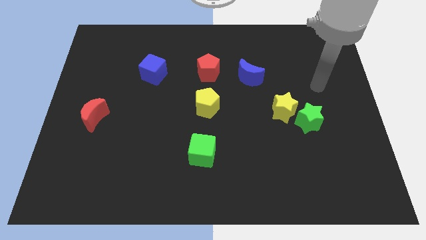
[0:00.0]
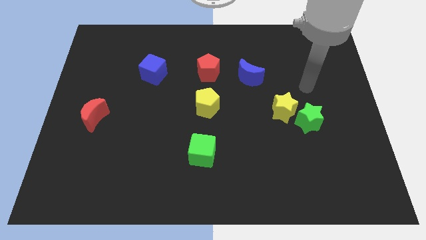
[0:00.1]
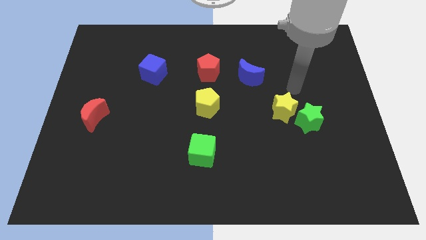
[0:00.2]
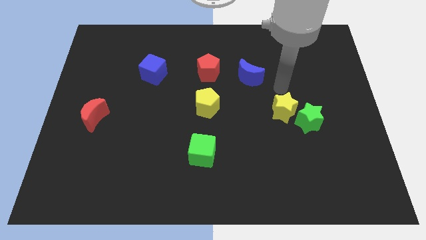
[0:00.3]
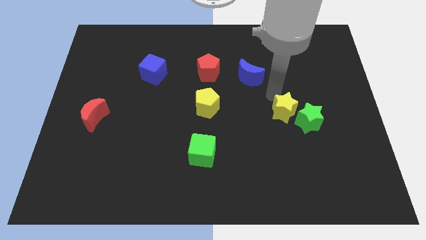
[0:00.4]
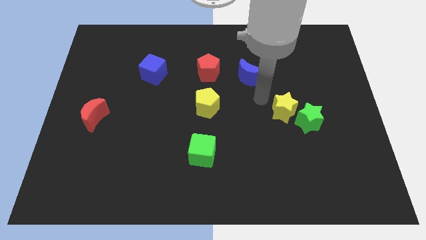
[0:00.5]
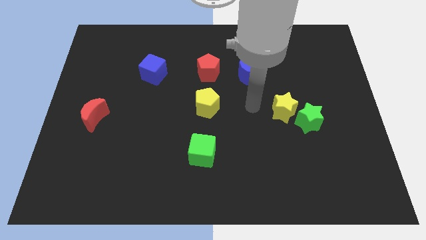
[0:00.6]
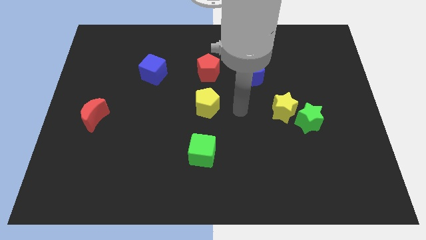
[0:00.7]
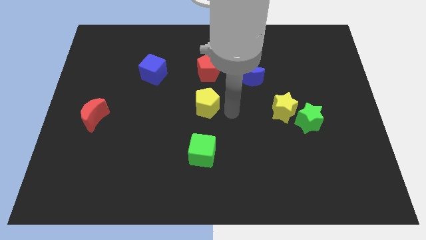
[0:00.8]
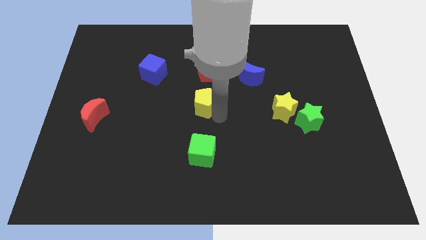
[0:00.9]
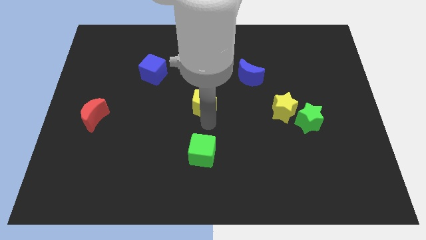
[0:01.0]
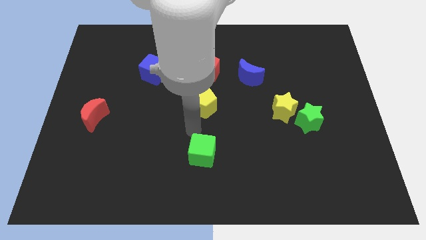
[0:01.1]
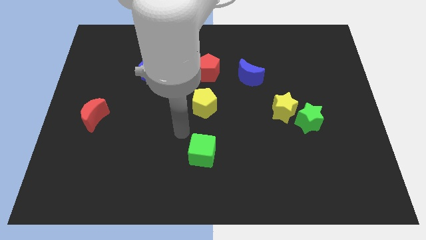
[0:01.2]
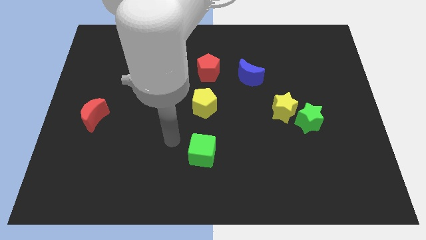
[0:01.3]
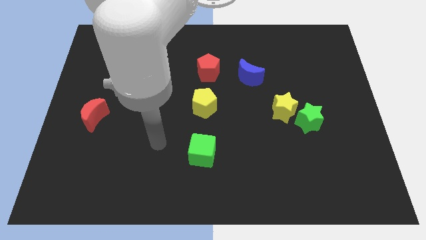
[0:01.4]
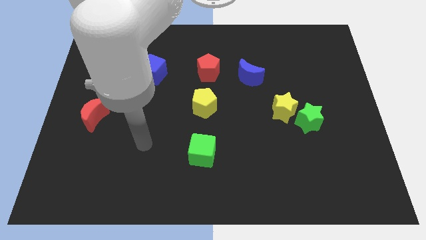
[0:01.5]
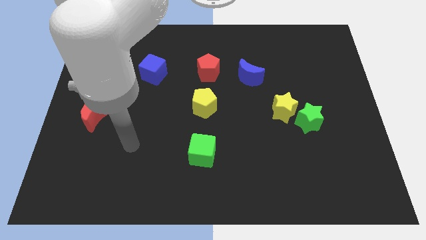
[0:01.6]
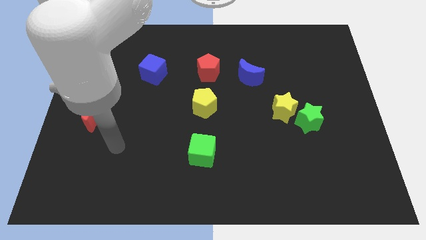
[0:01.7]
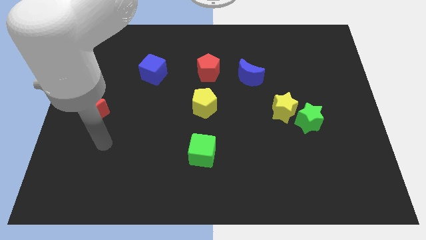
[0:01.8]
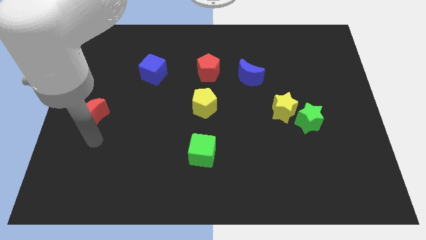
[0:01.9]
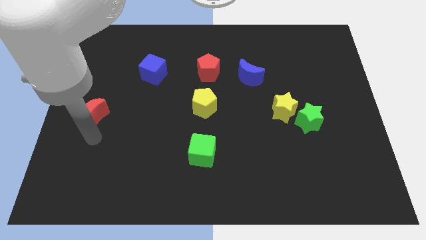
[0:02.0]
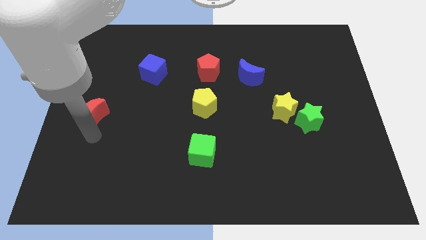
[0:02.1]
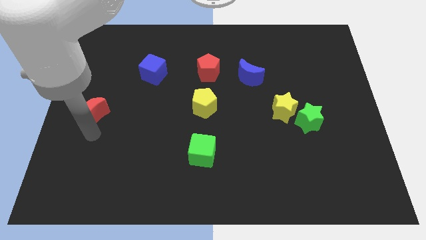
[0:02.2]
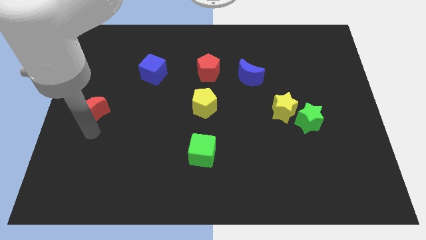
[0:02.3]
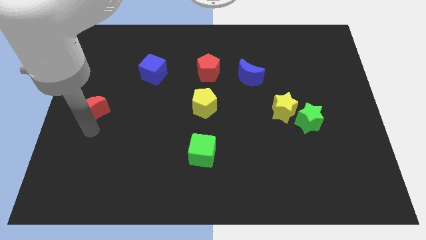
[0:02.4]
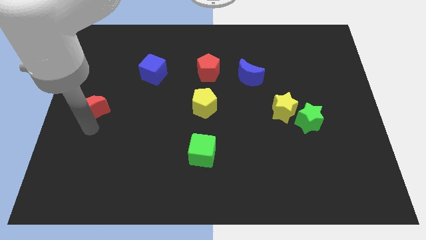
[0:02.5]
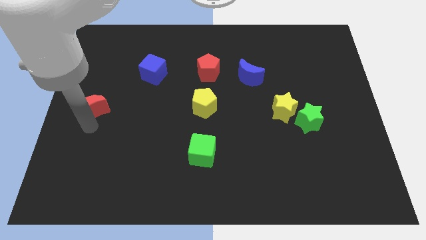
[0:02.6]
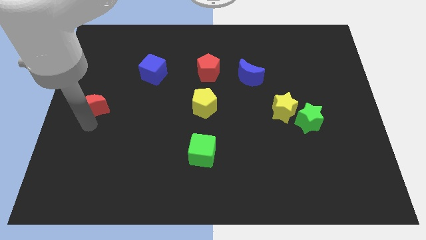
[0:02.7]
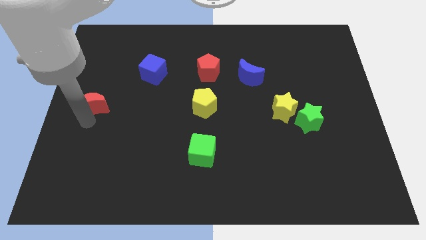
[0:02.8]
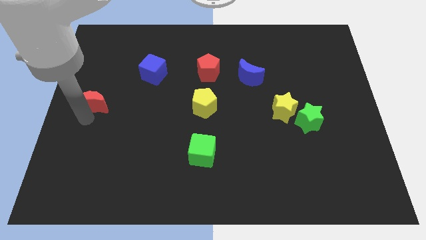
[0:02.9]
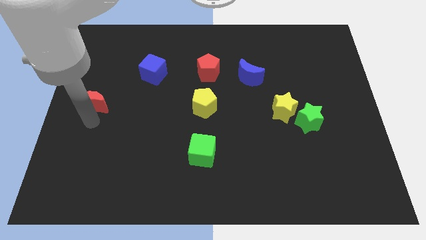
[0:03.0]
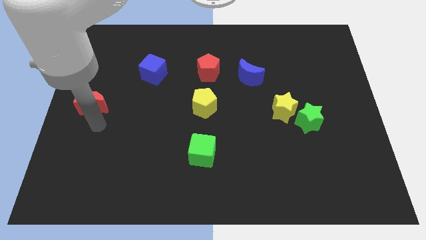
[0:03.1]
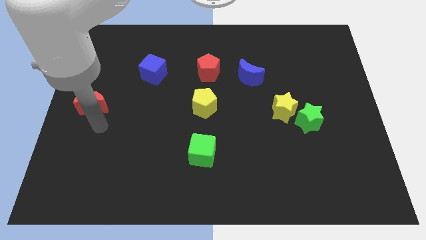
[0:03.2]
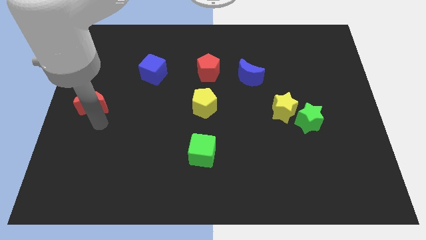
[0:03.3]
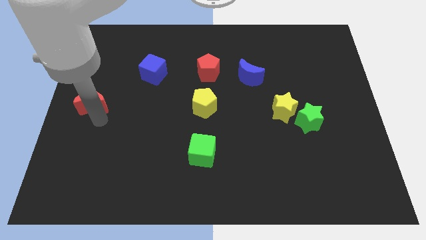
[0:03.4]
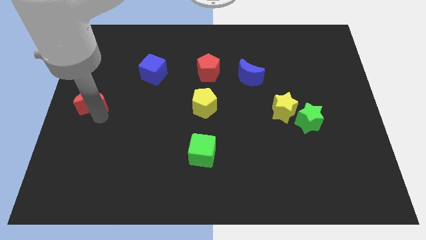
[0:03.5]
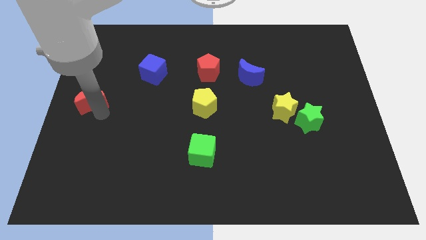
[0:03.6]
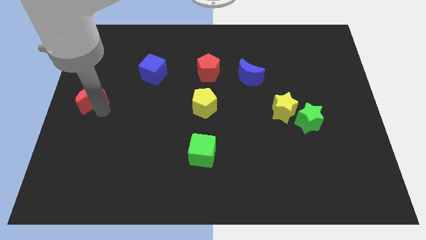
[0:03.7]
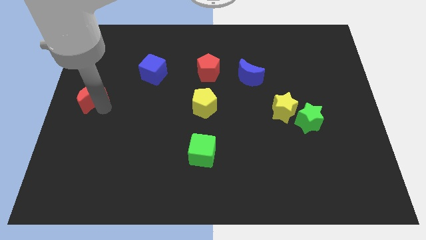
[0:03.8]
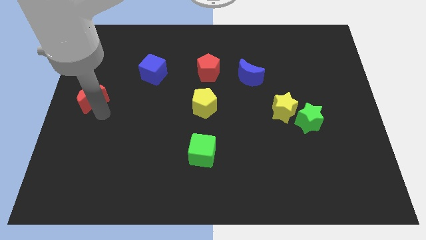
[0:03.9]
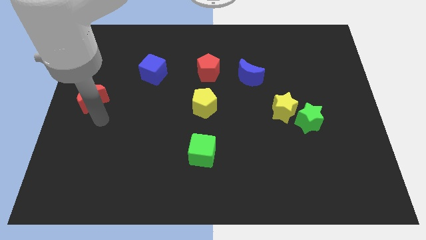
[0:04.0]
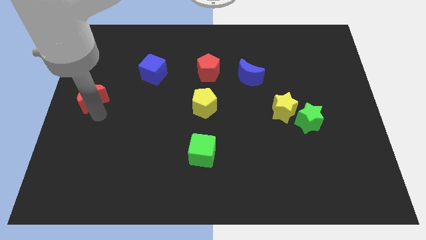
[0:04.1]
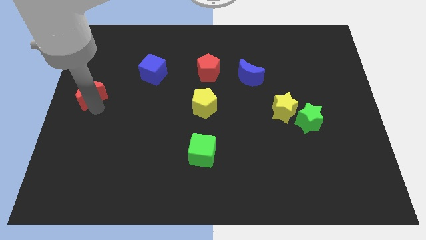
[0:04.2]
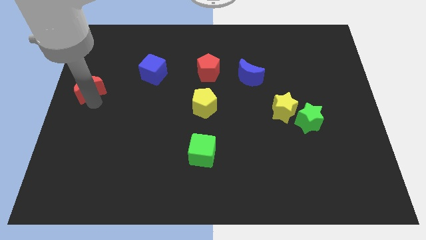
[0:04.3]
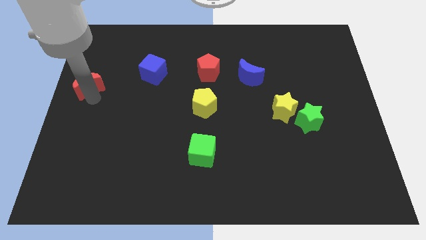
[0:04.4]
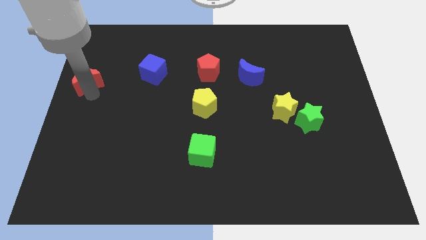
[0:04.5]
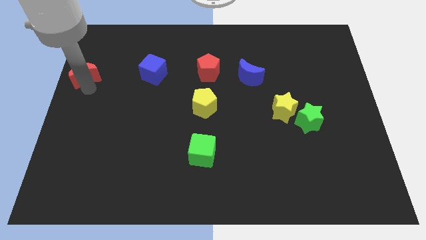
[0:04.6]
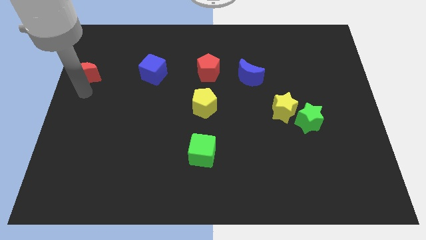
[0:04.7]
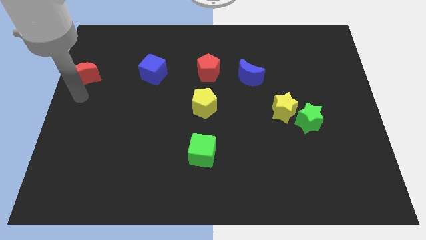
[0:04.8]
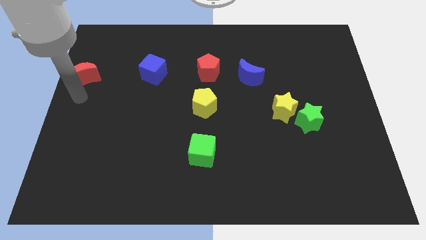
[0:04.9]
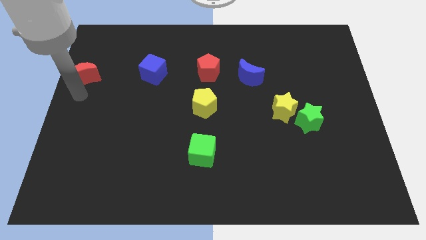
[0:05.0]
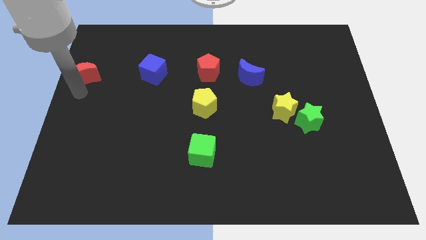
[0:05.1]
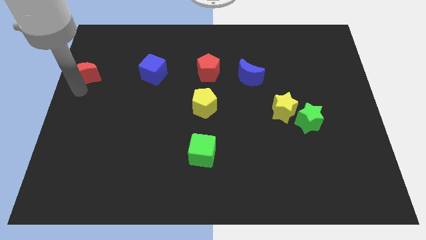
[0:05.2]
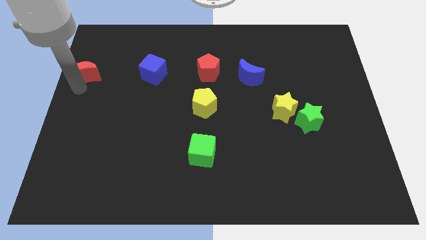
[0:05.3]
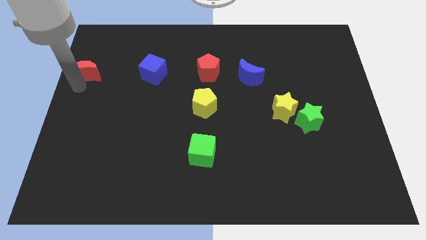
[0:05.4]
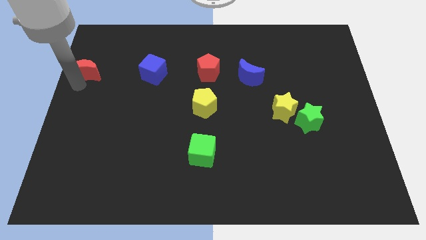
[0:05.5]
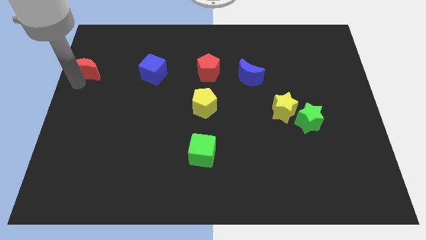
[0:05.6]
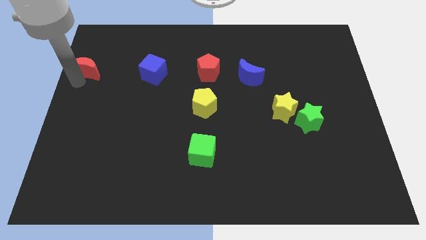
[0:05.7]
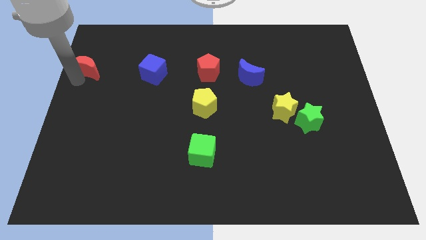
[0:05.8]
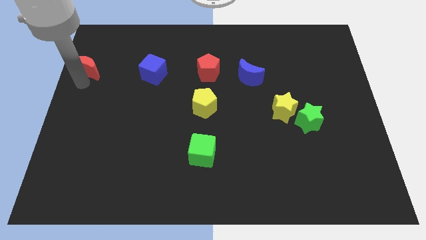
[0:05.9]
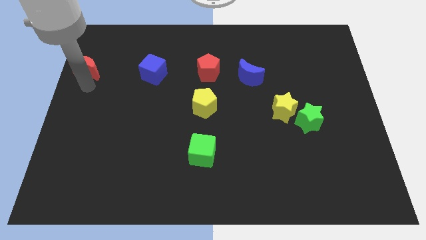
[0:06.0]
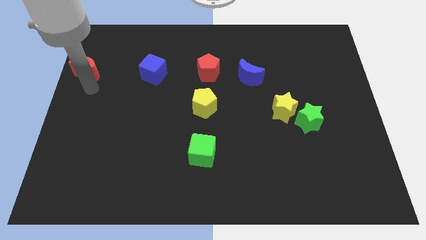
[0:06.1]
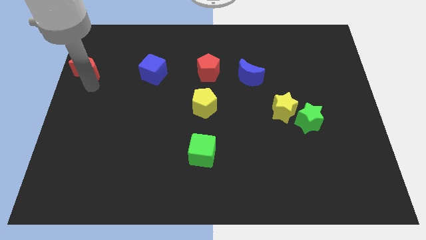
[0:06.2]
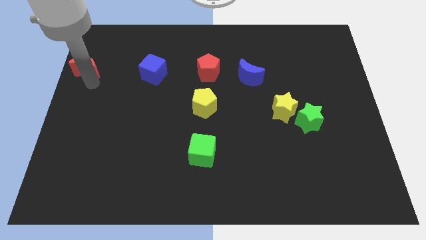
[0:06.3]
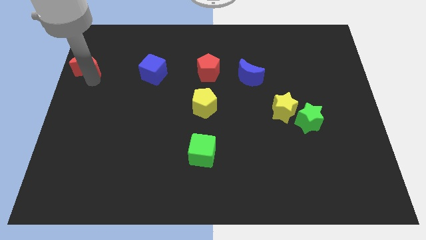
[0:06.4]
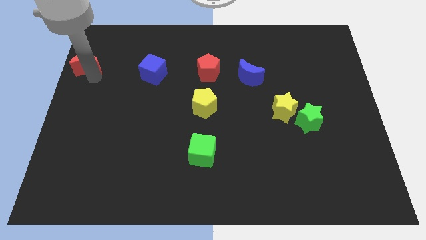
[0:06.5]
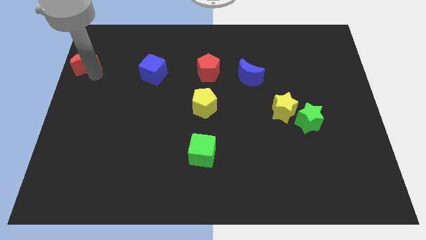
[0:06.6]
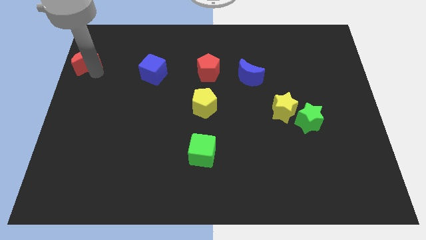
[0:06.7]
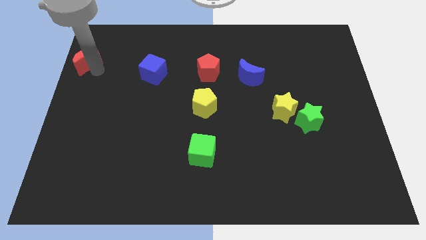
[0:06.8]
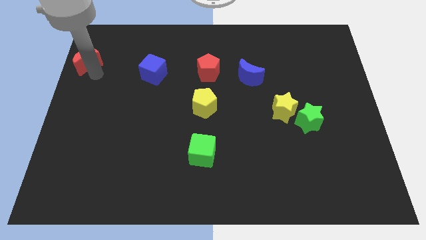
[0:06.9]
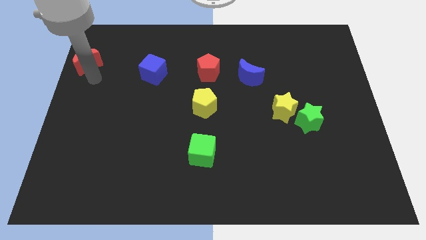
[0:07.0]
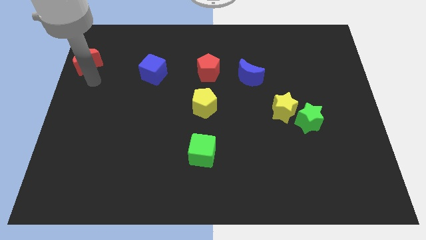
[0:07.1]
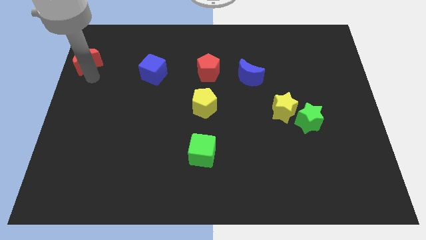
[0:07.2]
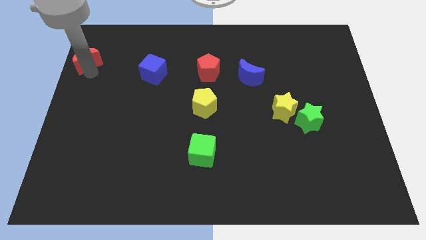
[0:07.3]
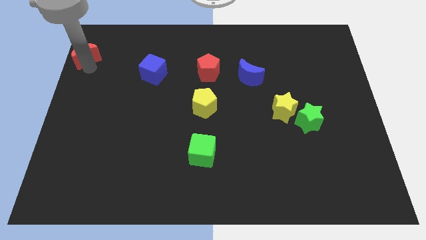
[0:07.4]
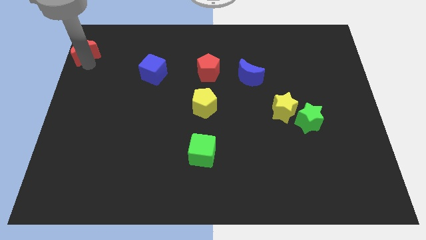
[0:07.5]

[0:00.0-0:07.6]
move the red moon to the upper left corner
